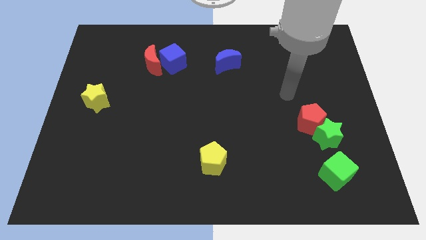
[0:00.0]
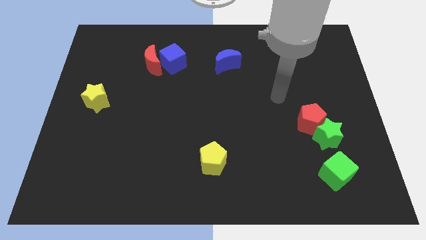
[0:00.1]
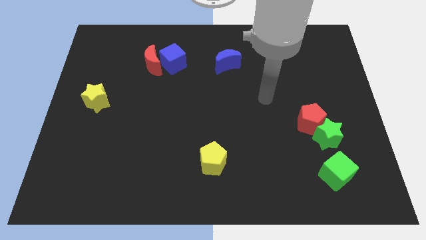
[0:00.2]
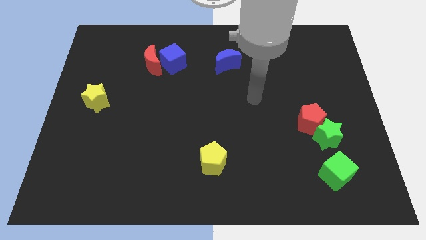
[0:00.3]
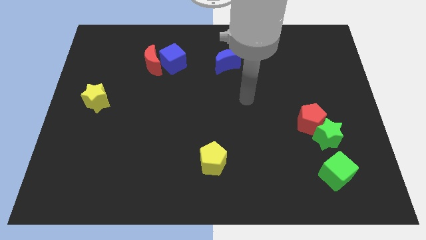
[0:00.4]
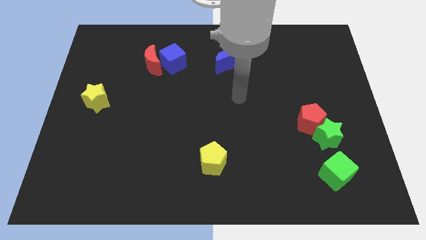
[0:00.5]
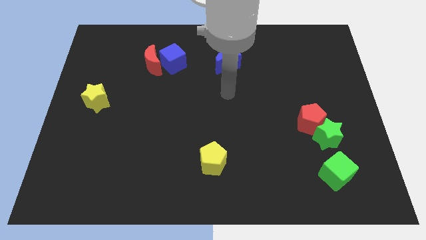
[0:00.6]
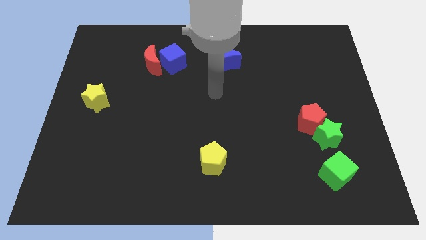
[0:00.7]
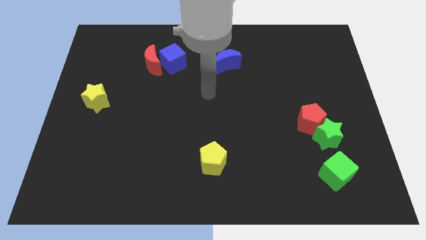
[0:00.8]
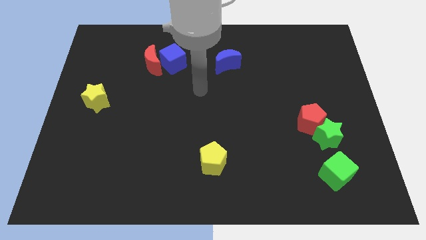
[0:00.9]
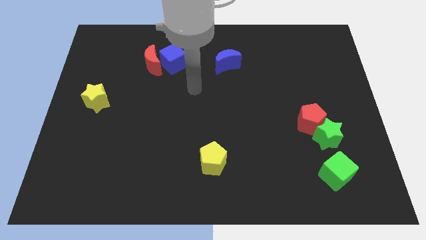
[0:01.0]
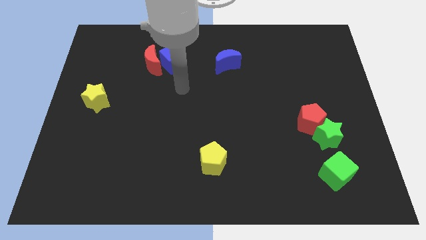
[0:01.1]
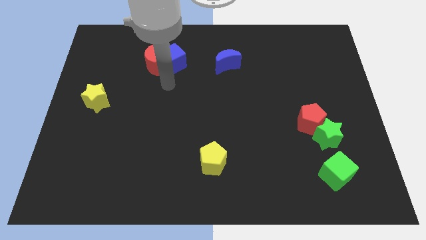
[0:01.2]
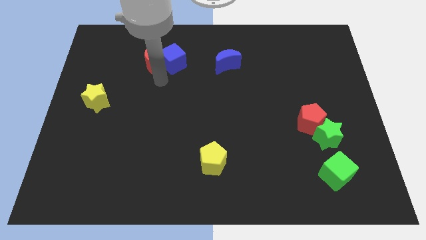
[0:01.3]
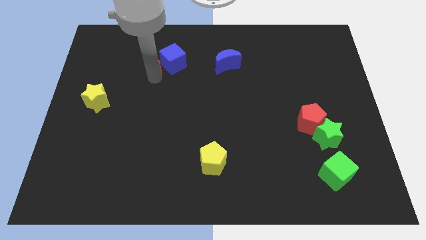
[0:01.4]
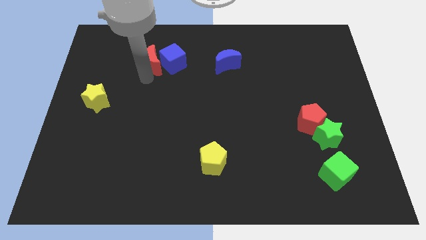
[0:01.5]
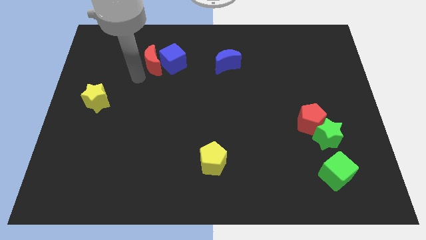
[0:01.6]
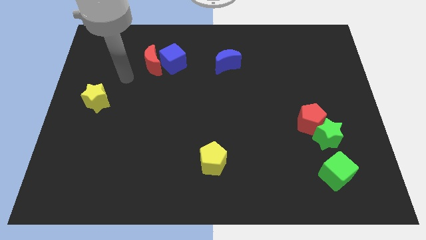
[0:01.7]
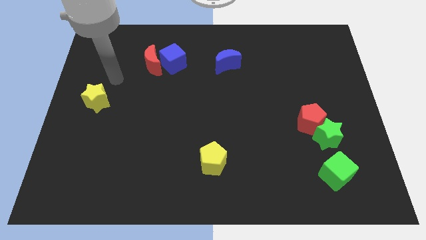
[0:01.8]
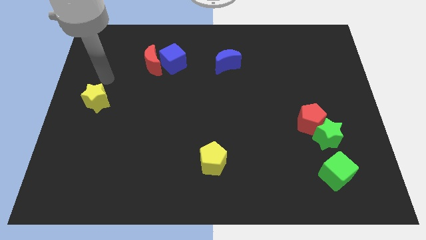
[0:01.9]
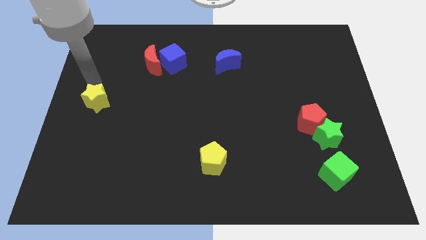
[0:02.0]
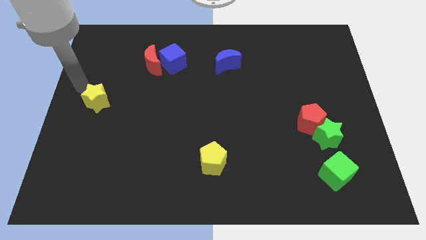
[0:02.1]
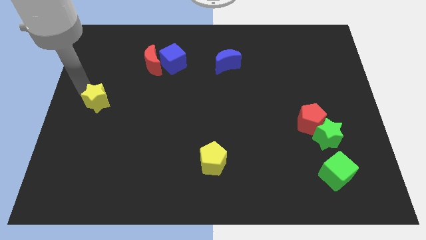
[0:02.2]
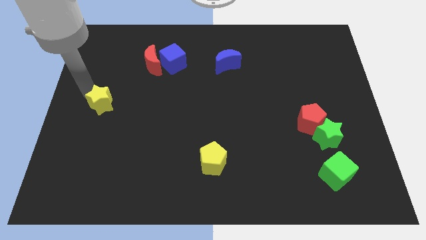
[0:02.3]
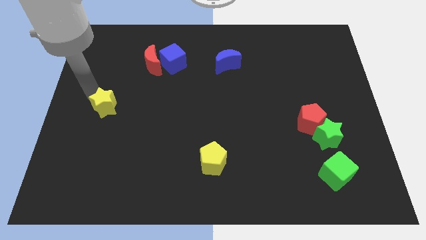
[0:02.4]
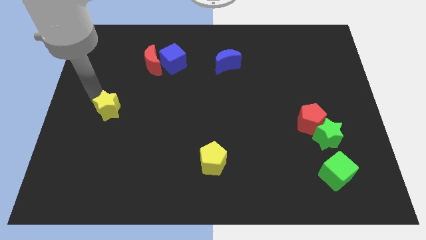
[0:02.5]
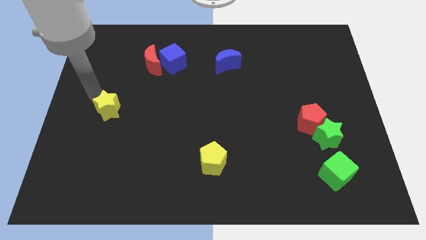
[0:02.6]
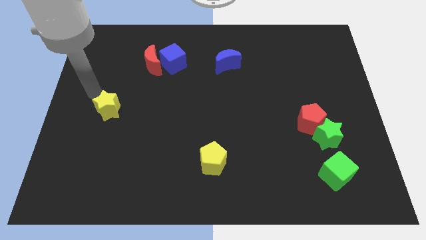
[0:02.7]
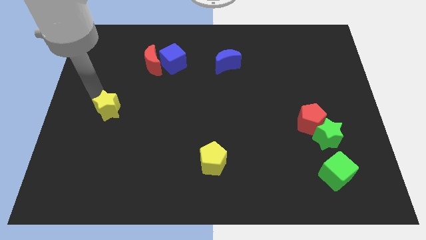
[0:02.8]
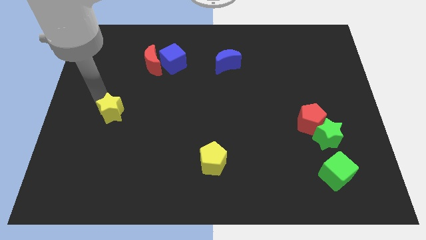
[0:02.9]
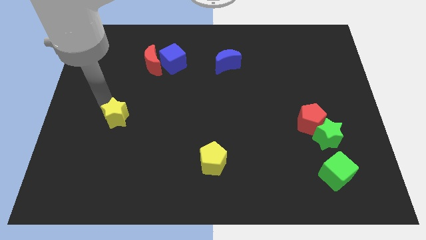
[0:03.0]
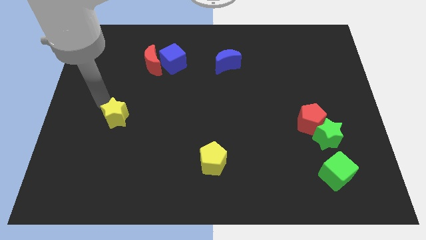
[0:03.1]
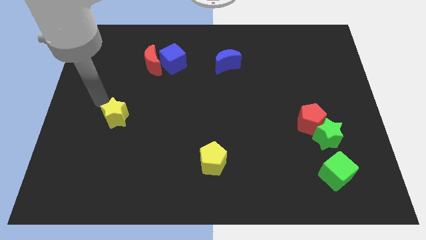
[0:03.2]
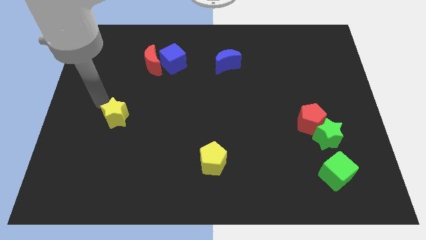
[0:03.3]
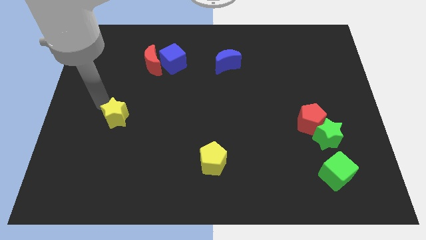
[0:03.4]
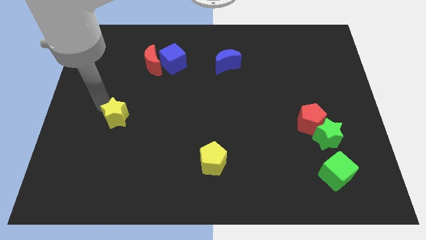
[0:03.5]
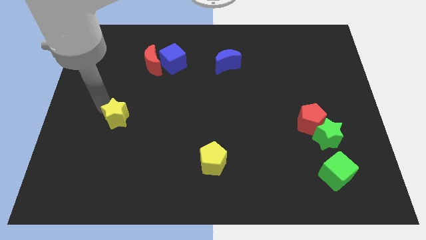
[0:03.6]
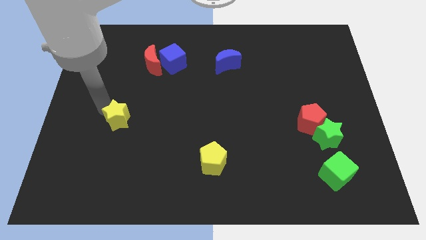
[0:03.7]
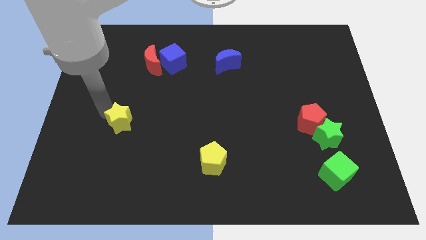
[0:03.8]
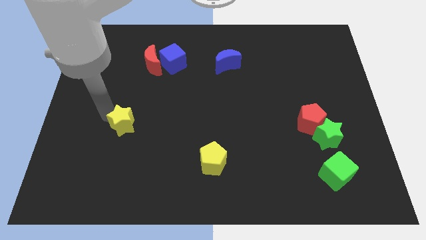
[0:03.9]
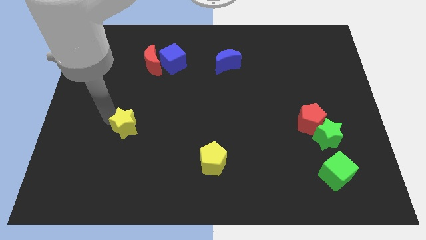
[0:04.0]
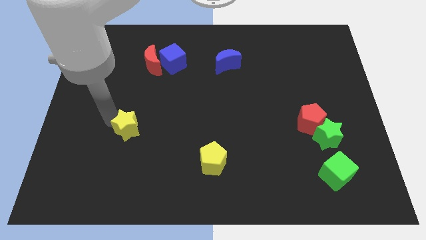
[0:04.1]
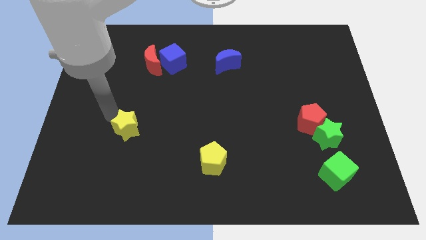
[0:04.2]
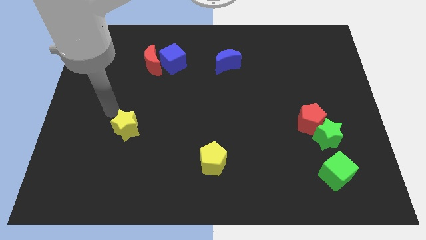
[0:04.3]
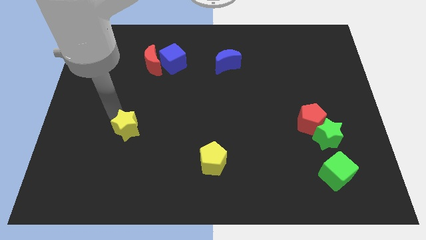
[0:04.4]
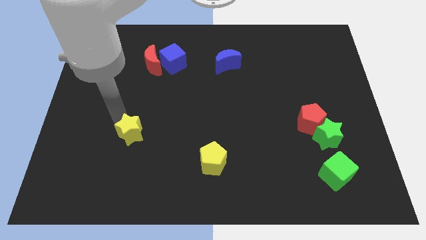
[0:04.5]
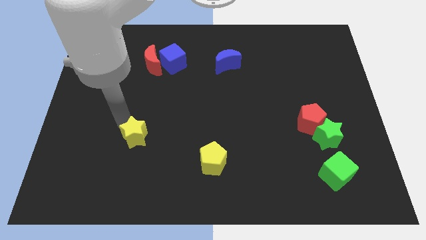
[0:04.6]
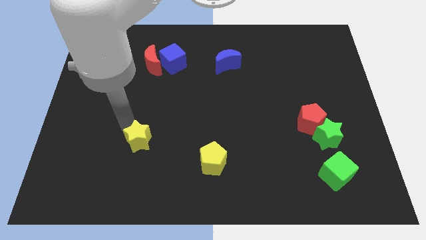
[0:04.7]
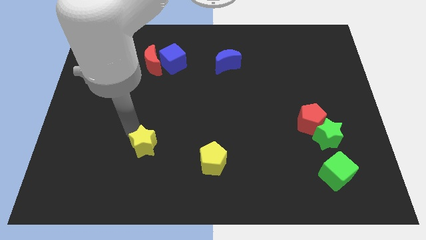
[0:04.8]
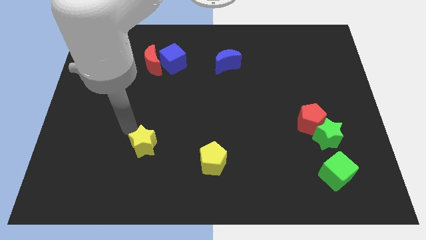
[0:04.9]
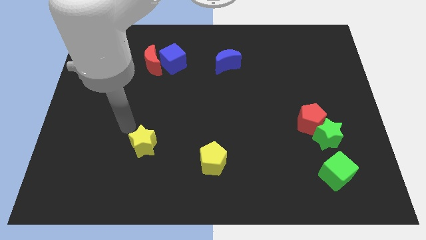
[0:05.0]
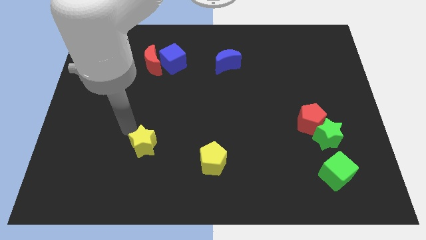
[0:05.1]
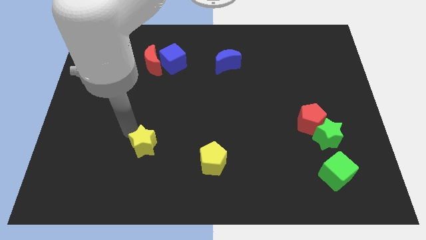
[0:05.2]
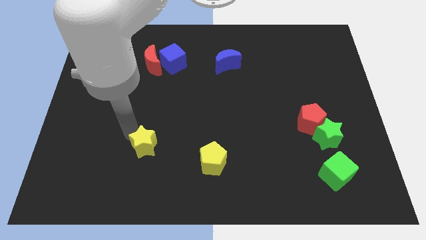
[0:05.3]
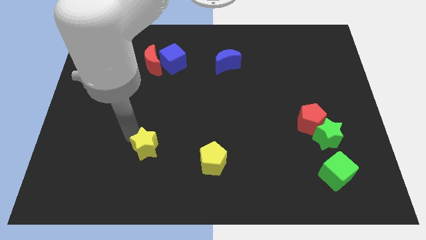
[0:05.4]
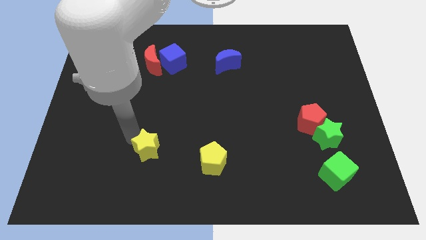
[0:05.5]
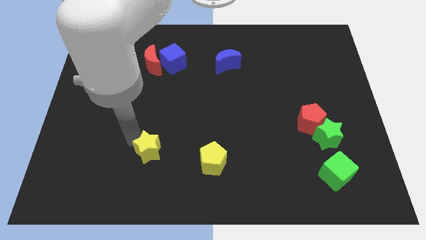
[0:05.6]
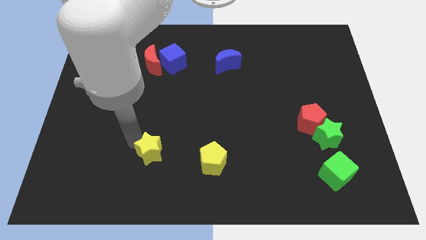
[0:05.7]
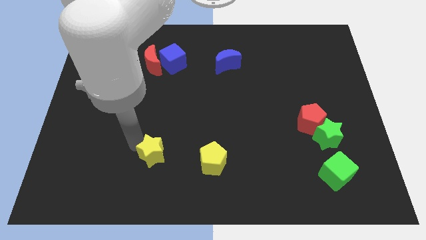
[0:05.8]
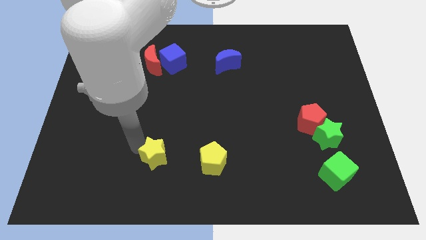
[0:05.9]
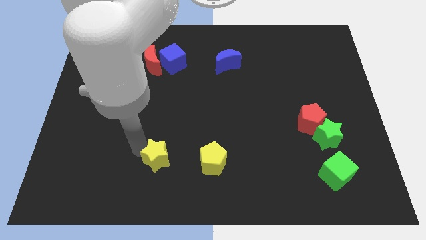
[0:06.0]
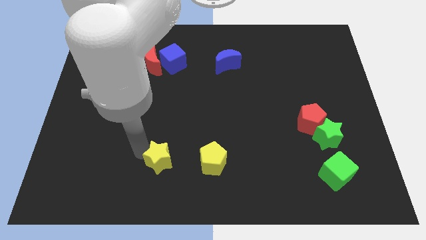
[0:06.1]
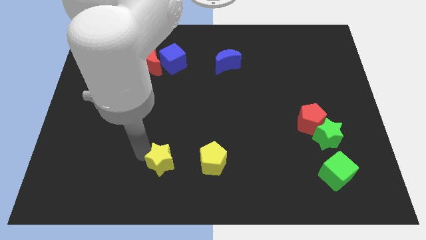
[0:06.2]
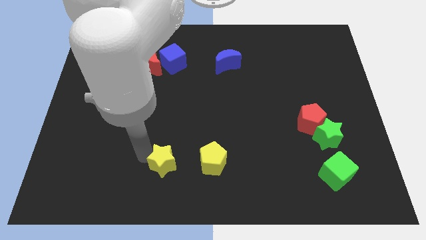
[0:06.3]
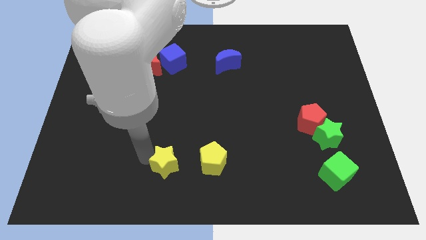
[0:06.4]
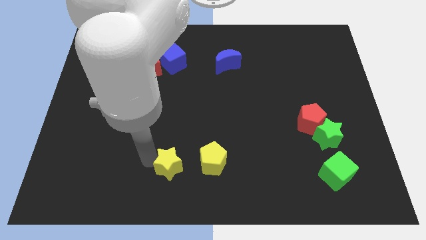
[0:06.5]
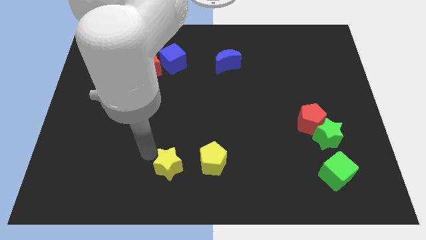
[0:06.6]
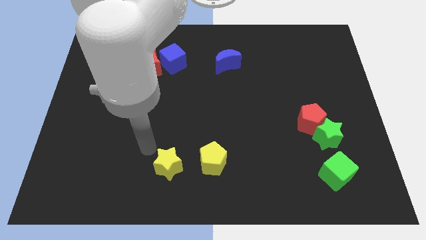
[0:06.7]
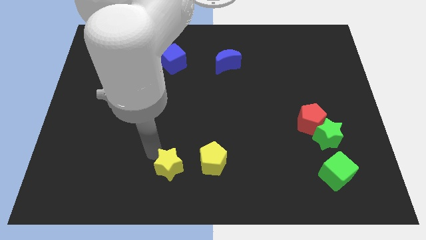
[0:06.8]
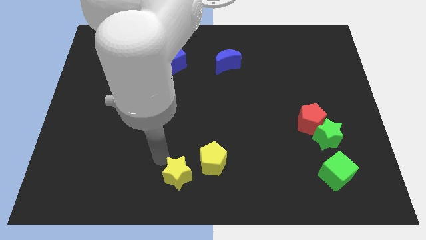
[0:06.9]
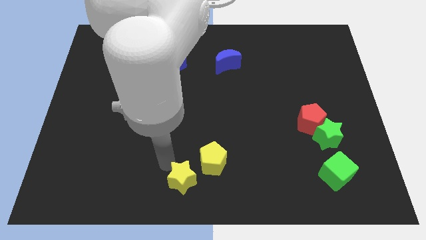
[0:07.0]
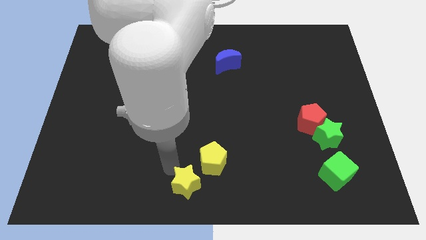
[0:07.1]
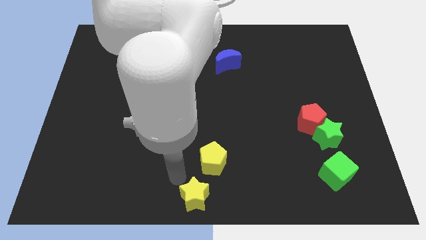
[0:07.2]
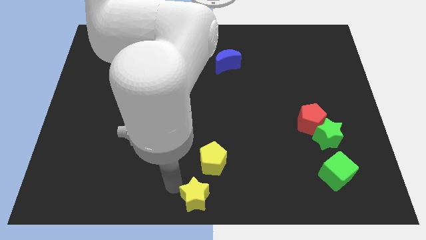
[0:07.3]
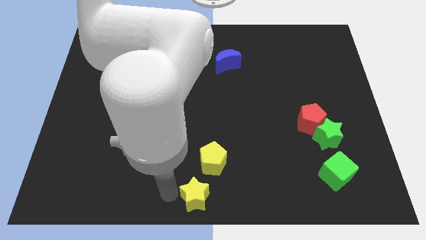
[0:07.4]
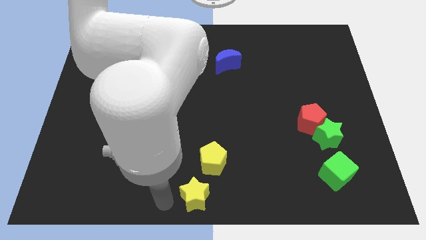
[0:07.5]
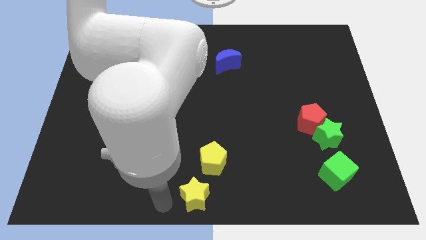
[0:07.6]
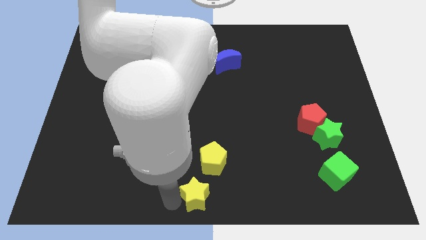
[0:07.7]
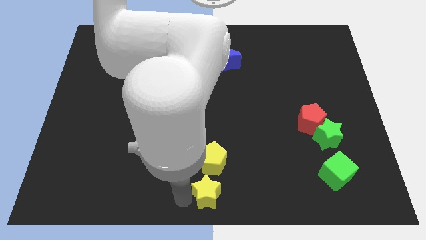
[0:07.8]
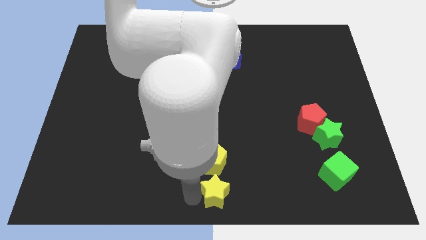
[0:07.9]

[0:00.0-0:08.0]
slide the yellow star to the bottom right side of the yellow pentagon
